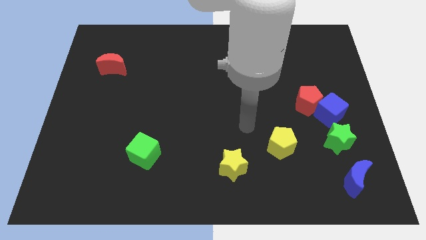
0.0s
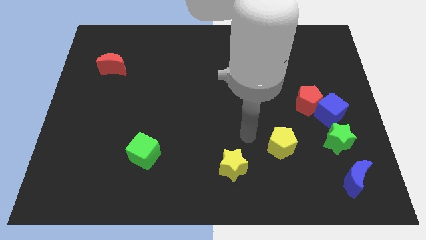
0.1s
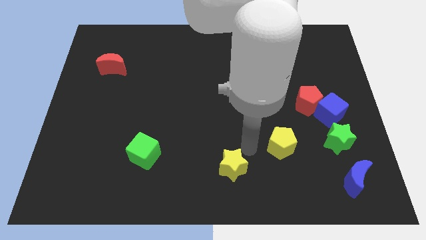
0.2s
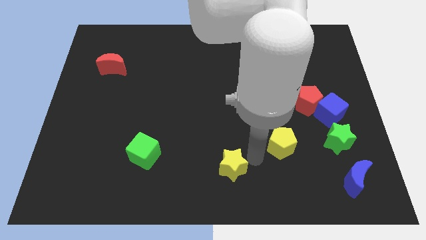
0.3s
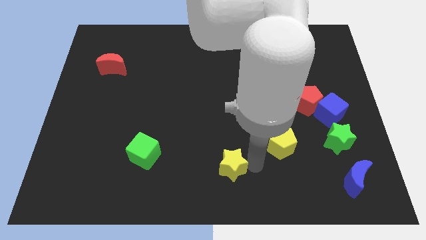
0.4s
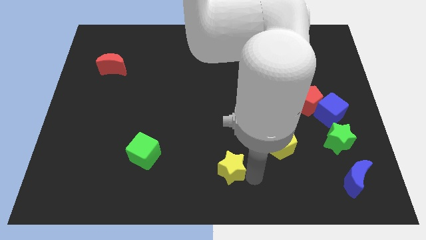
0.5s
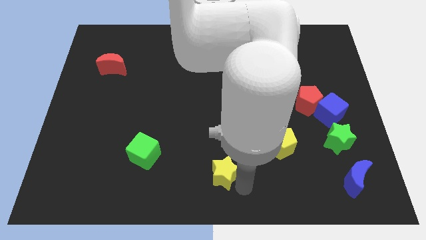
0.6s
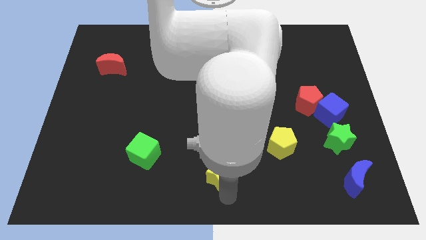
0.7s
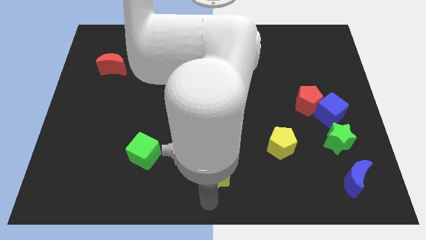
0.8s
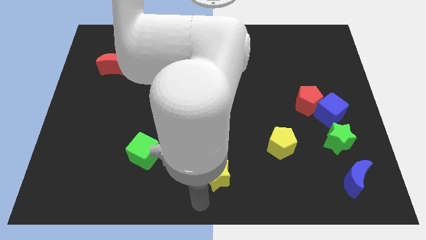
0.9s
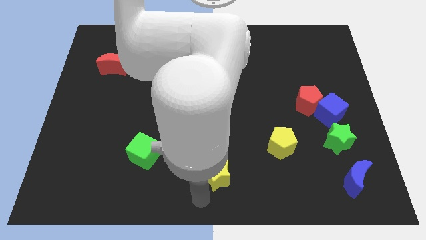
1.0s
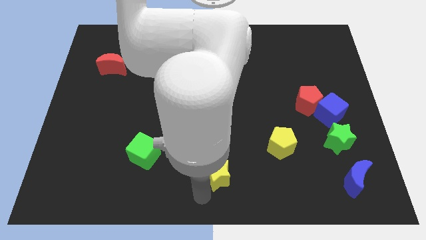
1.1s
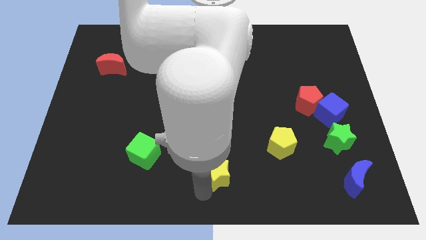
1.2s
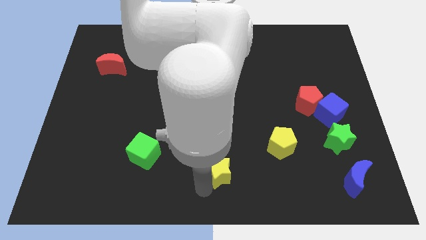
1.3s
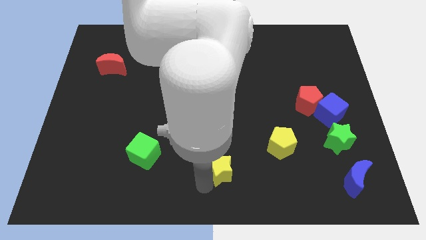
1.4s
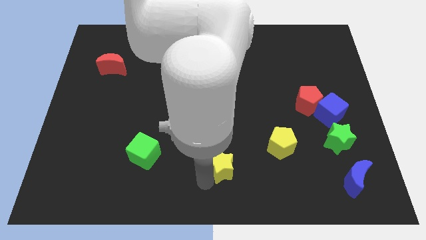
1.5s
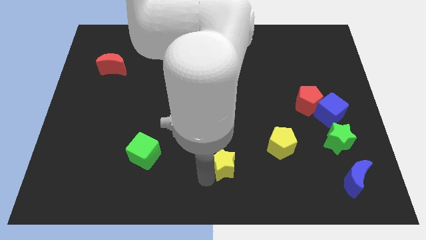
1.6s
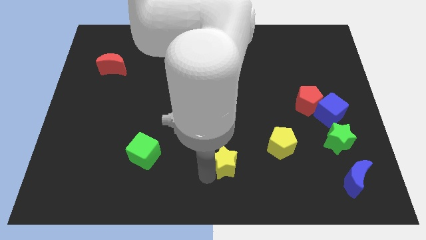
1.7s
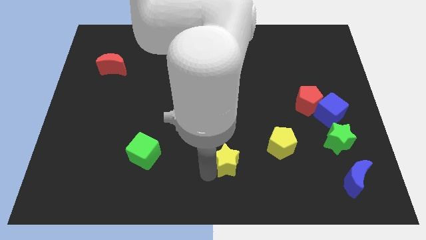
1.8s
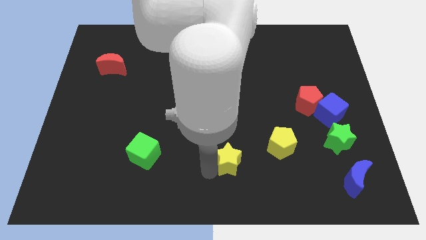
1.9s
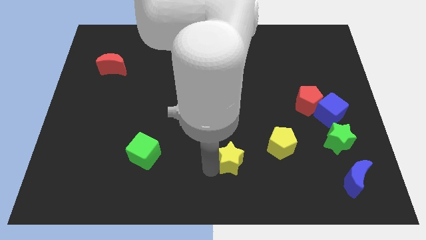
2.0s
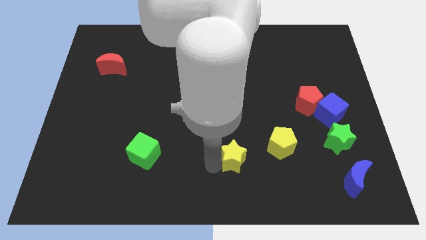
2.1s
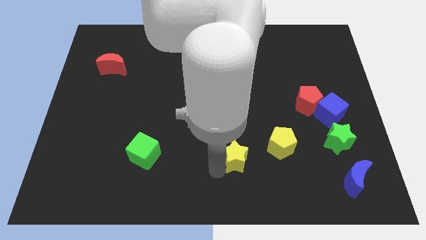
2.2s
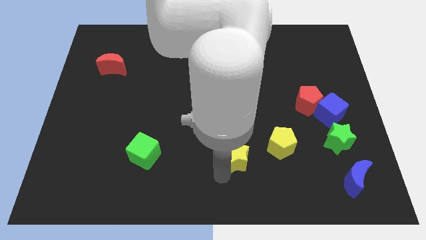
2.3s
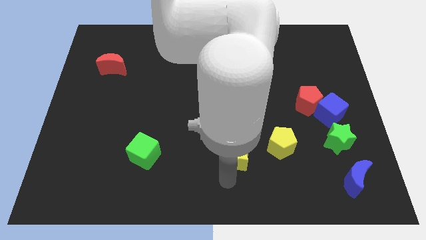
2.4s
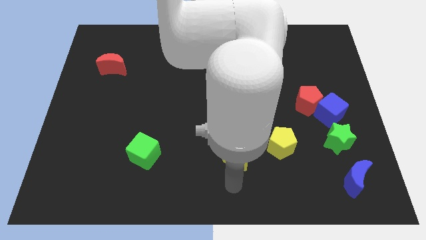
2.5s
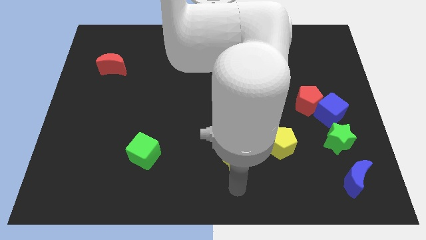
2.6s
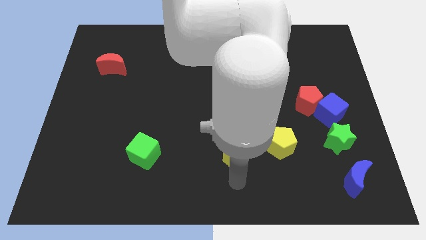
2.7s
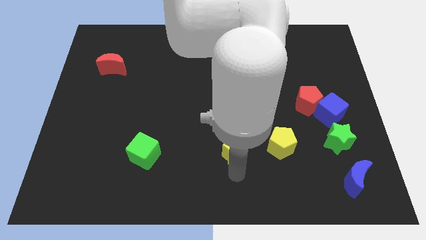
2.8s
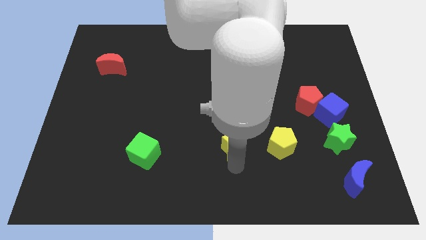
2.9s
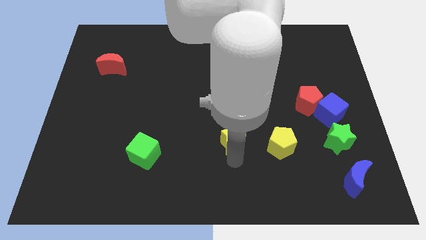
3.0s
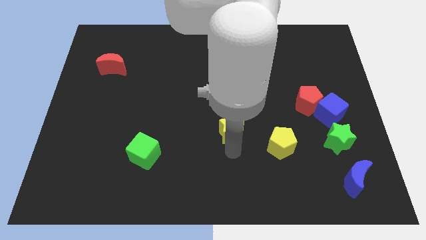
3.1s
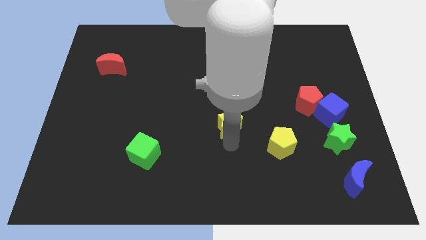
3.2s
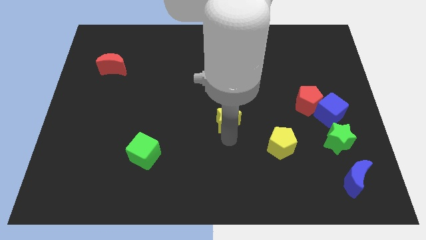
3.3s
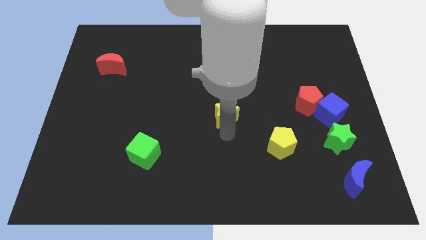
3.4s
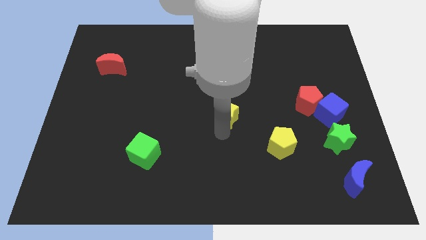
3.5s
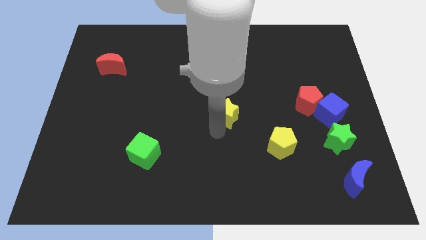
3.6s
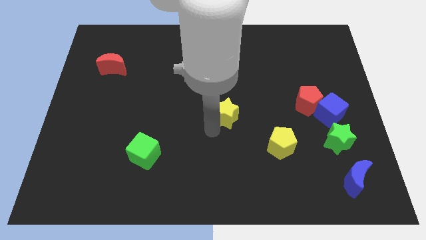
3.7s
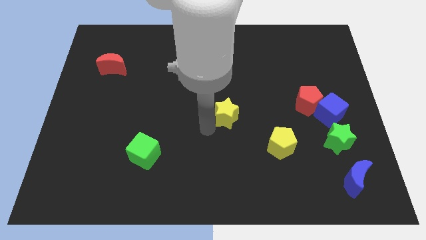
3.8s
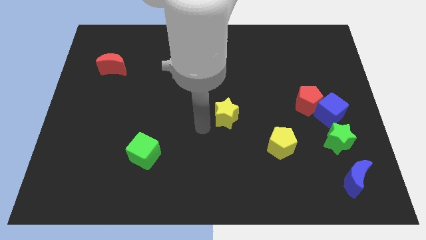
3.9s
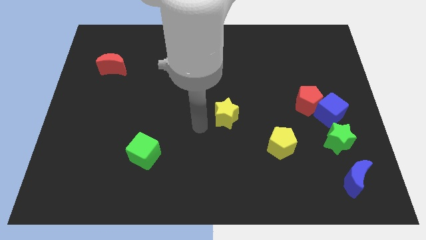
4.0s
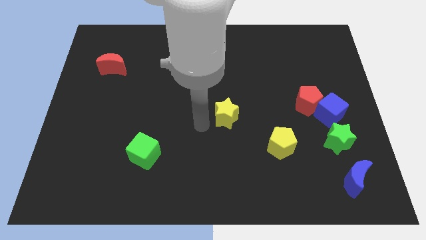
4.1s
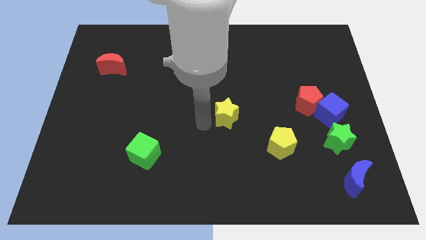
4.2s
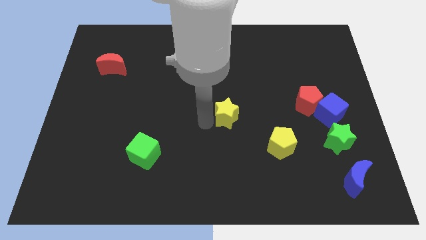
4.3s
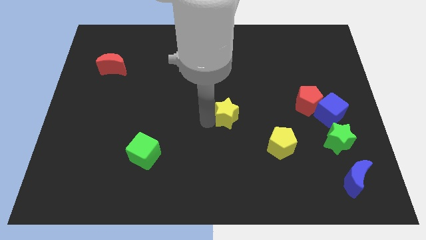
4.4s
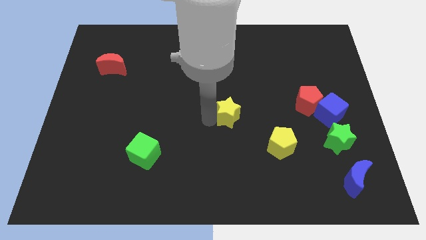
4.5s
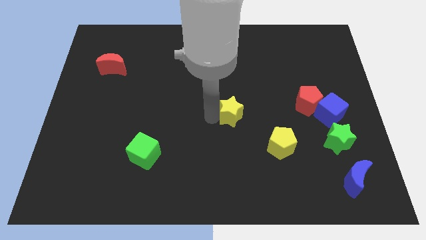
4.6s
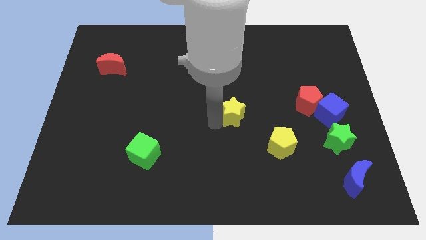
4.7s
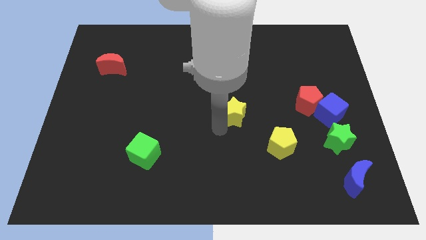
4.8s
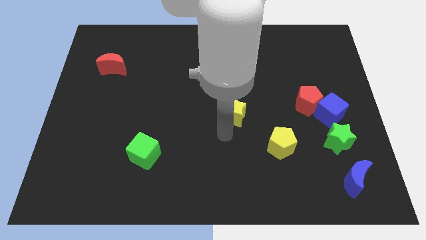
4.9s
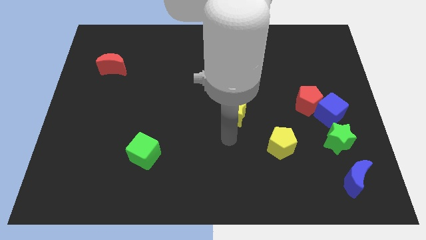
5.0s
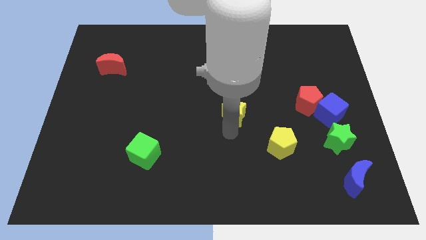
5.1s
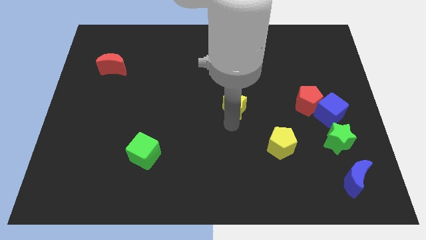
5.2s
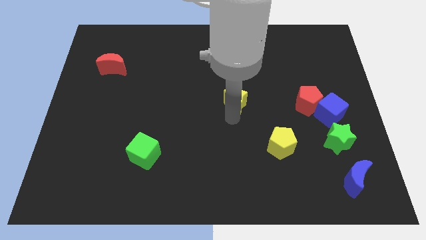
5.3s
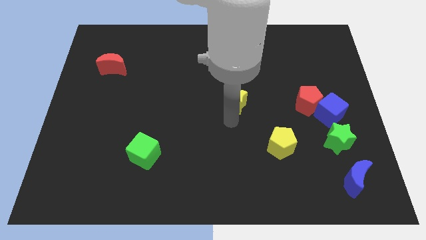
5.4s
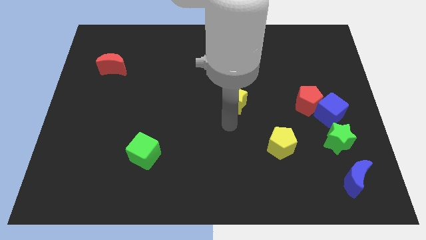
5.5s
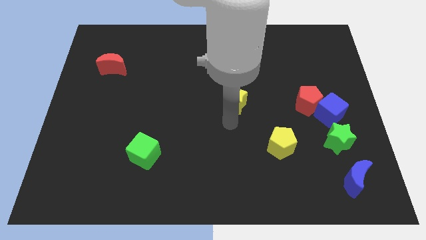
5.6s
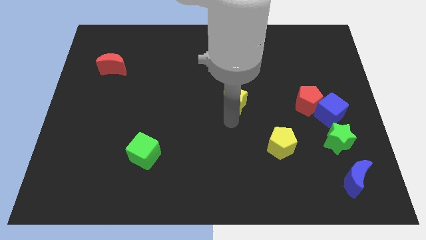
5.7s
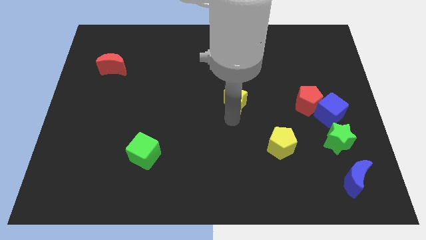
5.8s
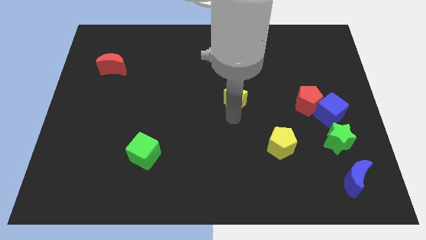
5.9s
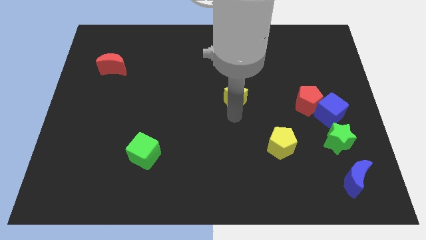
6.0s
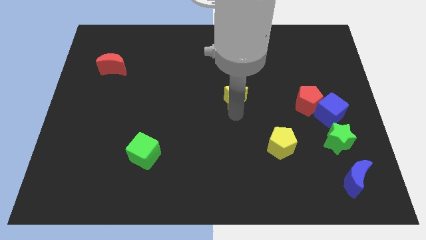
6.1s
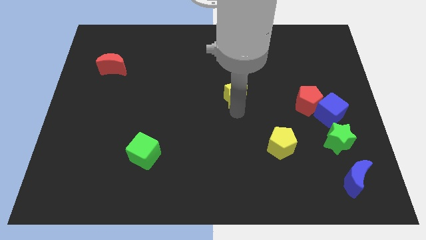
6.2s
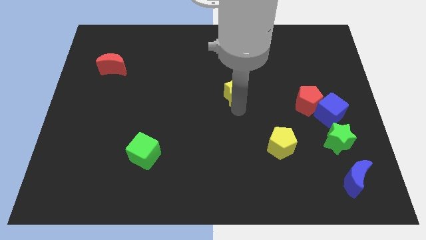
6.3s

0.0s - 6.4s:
slide the yellow star up

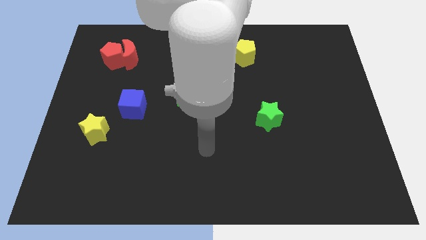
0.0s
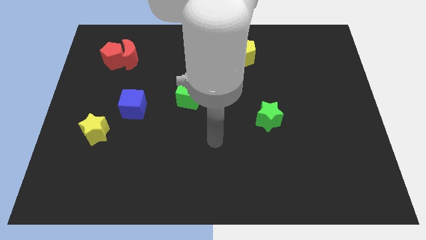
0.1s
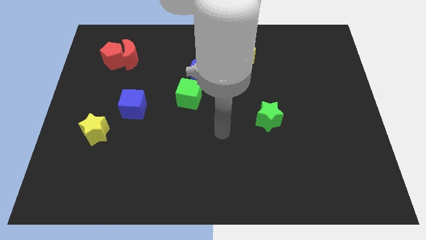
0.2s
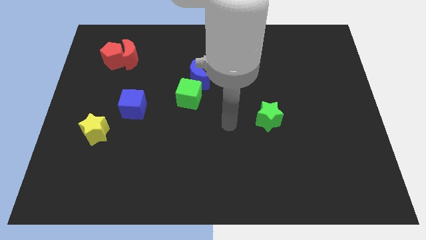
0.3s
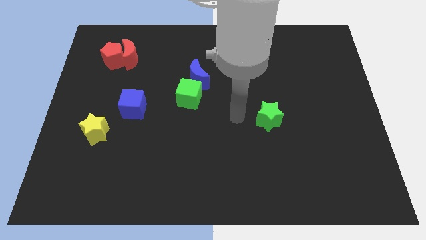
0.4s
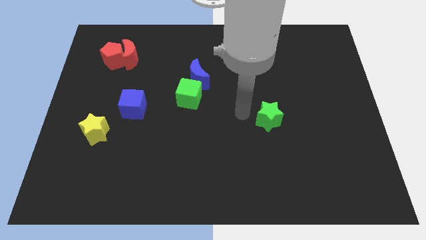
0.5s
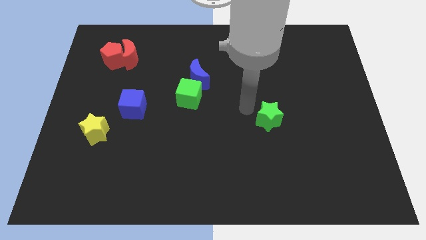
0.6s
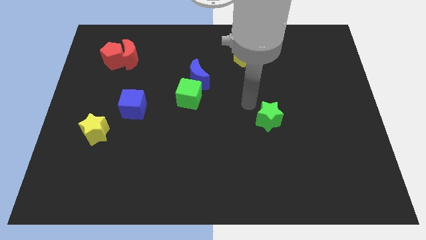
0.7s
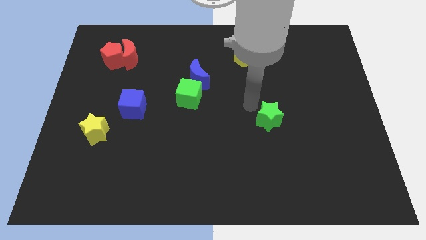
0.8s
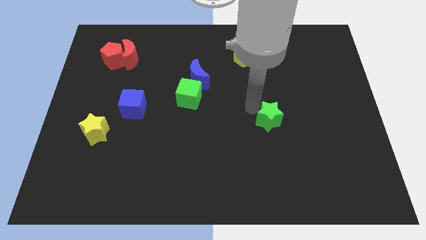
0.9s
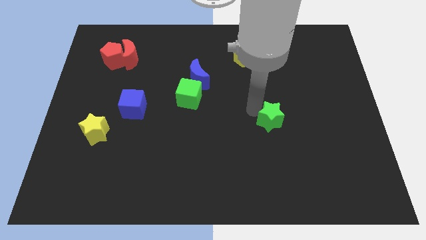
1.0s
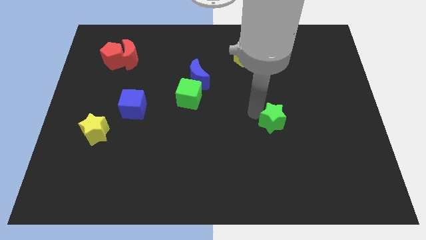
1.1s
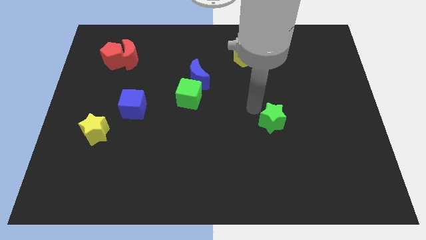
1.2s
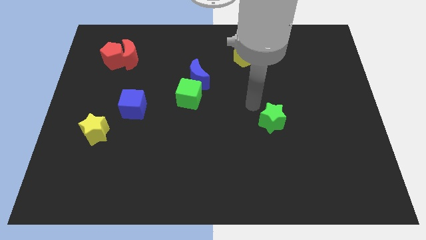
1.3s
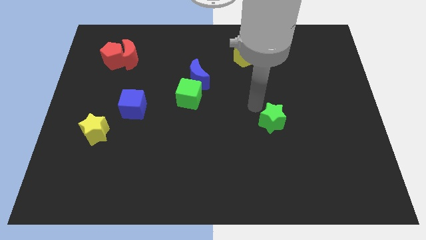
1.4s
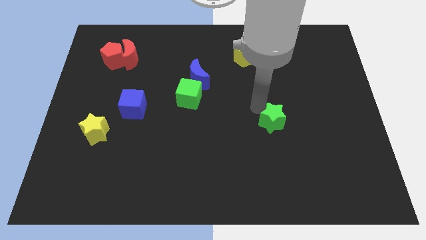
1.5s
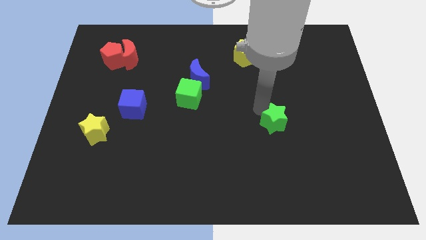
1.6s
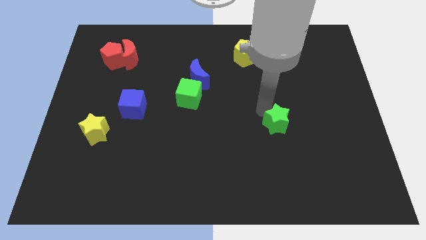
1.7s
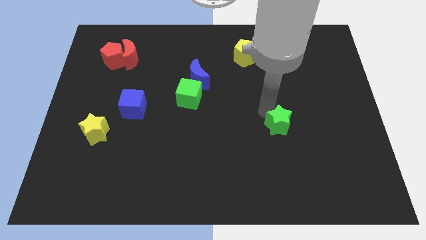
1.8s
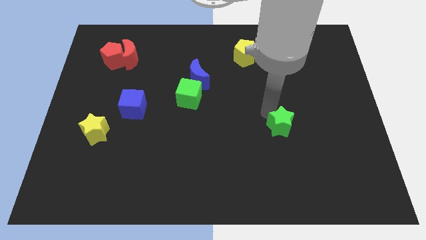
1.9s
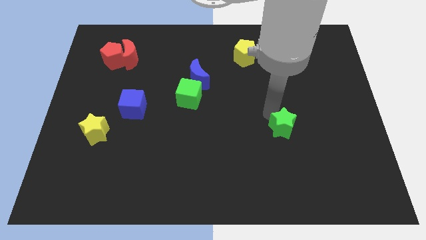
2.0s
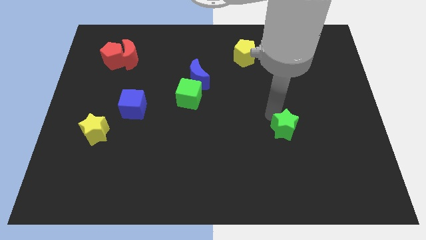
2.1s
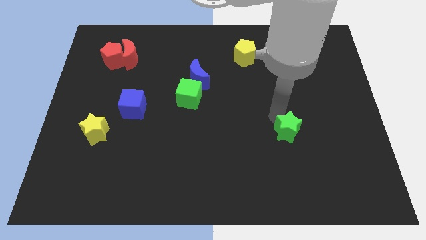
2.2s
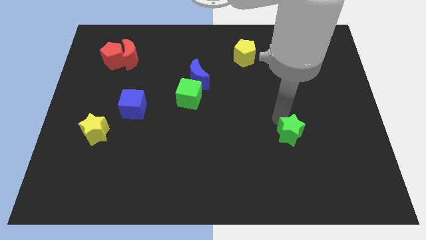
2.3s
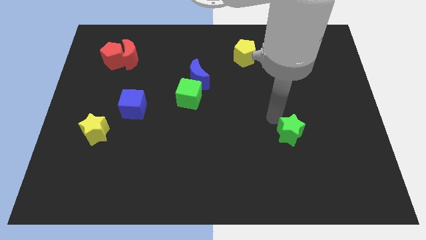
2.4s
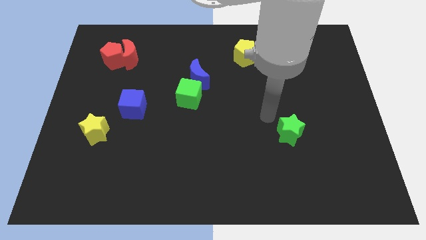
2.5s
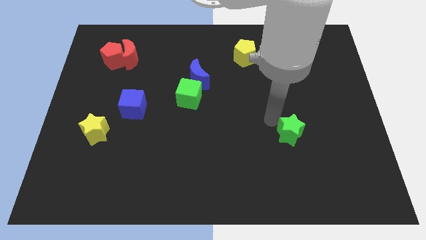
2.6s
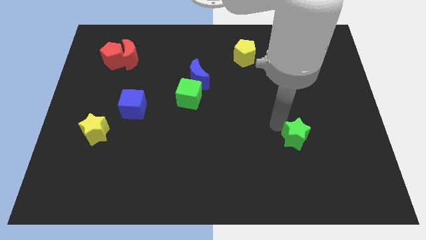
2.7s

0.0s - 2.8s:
move the green star downwards and to the right a little
